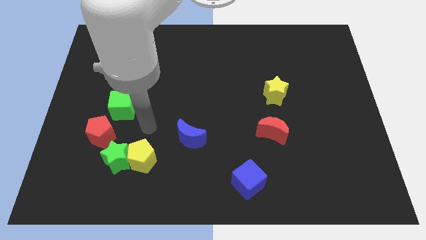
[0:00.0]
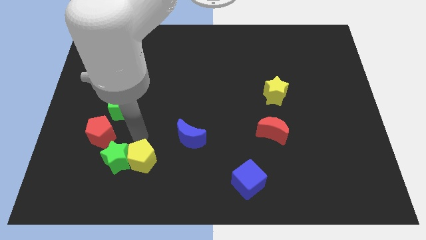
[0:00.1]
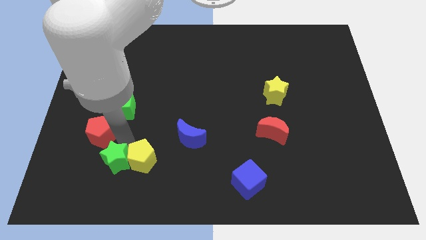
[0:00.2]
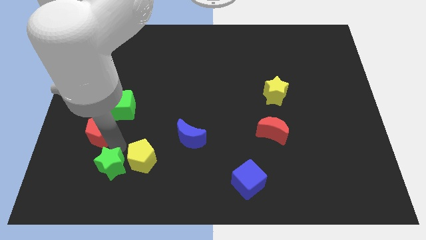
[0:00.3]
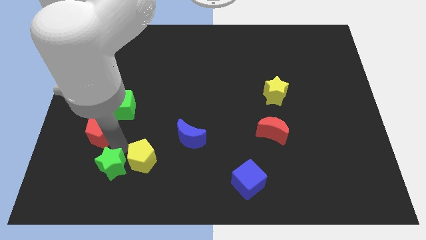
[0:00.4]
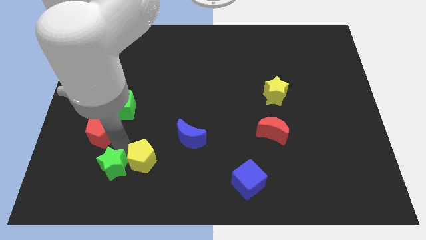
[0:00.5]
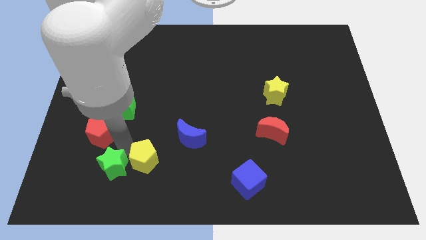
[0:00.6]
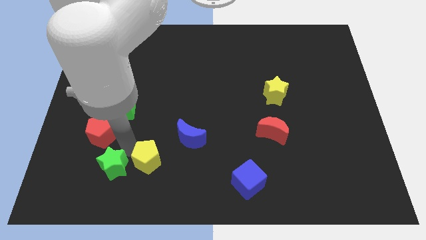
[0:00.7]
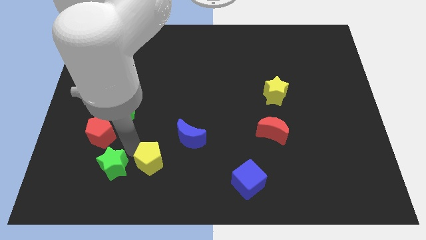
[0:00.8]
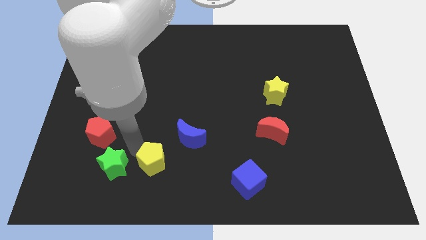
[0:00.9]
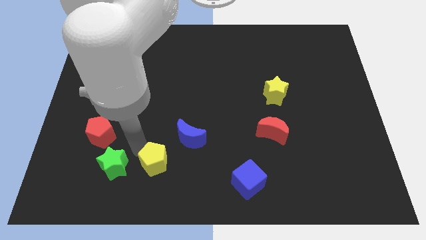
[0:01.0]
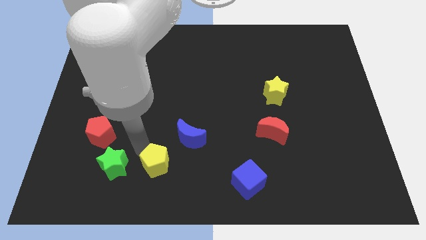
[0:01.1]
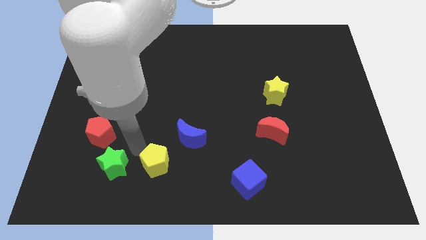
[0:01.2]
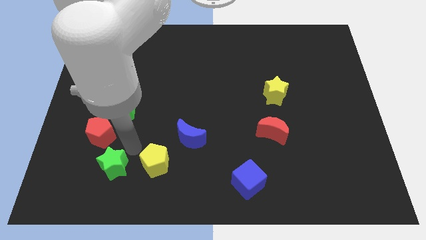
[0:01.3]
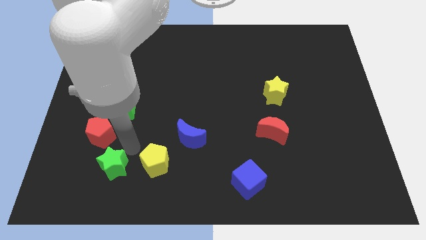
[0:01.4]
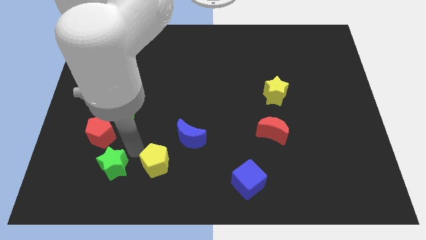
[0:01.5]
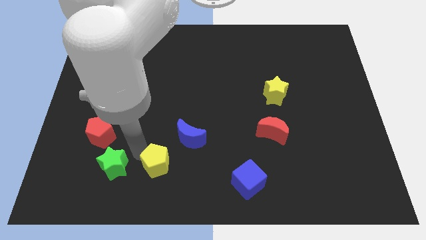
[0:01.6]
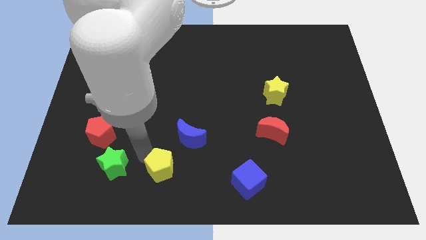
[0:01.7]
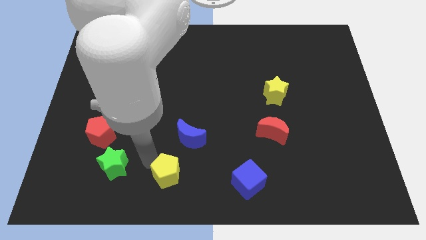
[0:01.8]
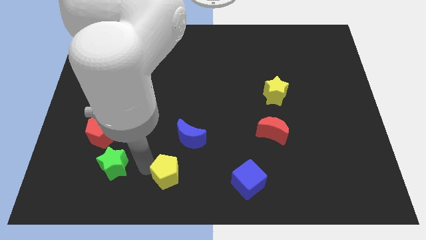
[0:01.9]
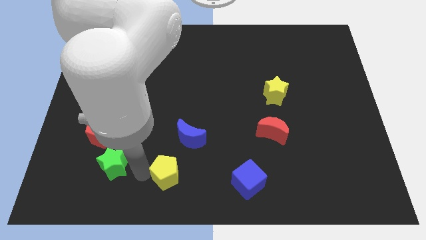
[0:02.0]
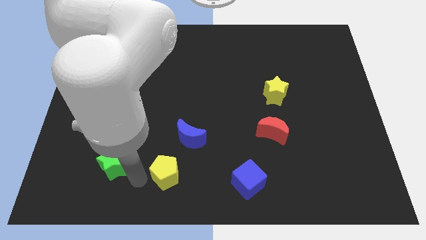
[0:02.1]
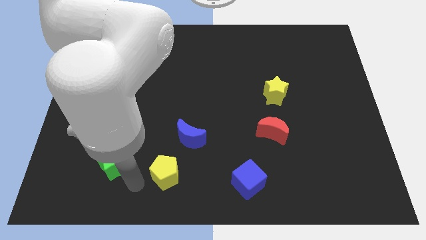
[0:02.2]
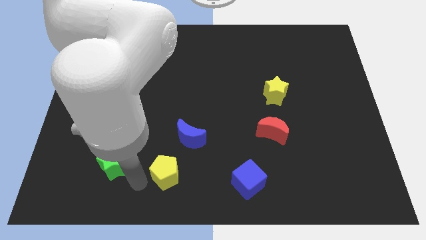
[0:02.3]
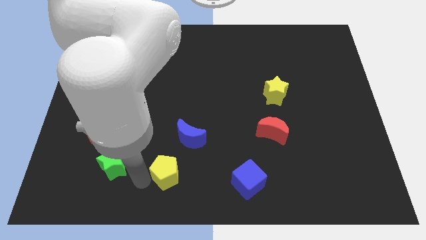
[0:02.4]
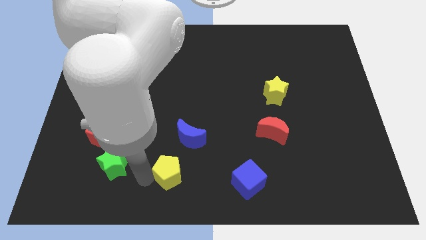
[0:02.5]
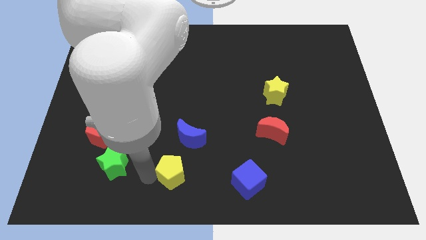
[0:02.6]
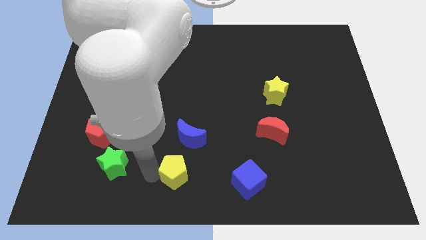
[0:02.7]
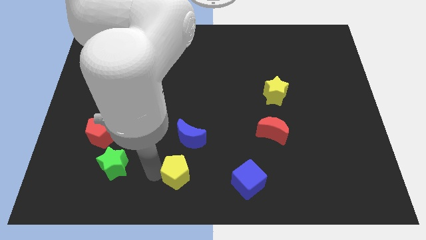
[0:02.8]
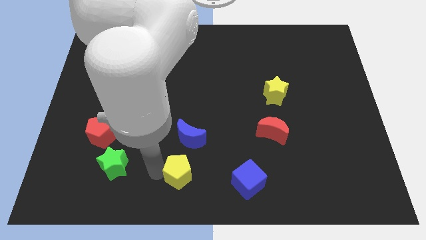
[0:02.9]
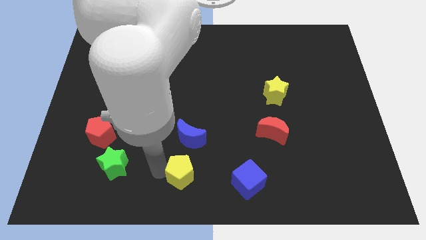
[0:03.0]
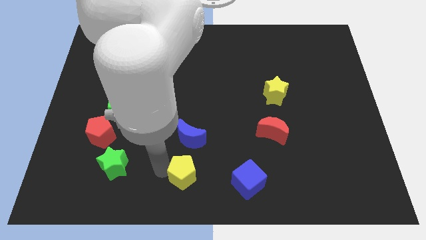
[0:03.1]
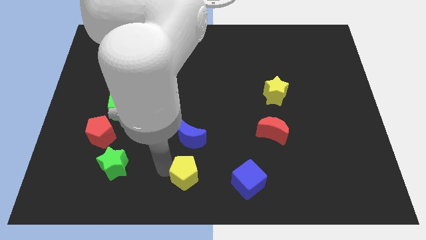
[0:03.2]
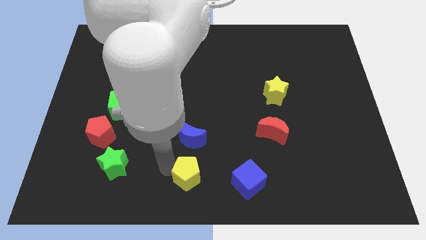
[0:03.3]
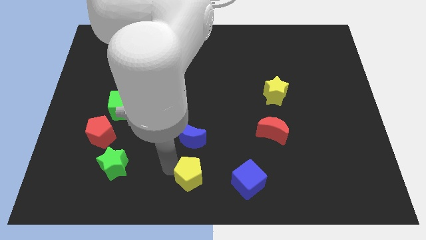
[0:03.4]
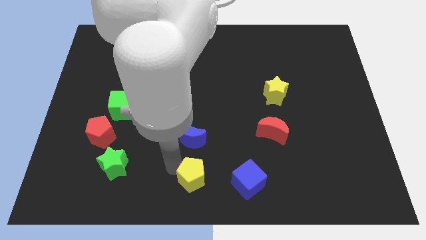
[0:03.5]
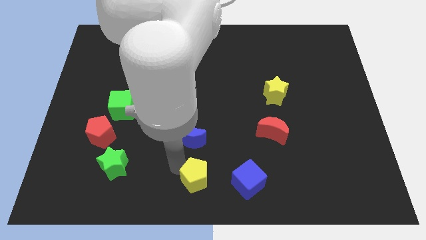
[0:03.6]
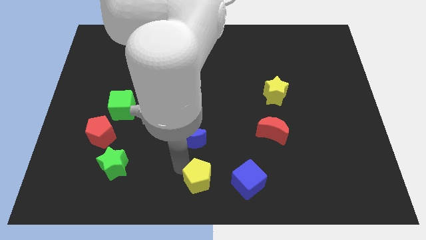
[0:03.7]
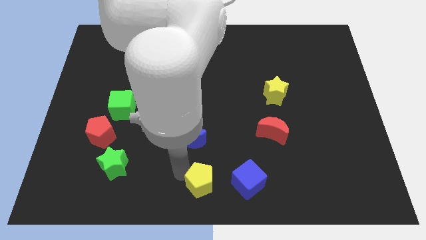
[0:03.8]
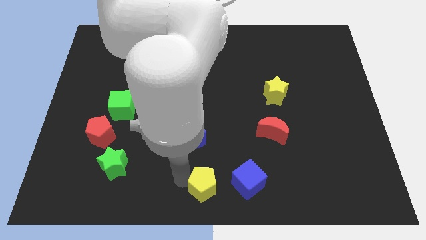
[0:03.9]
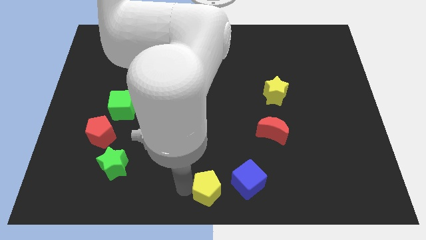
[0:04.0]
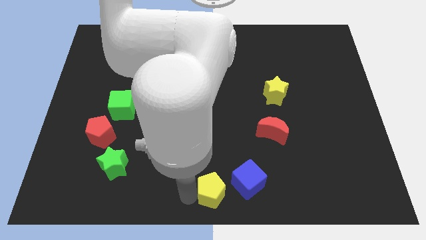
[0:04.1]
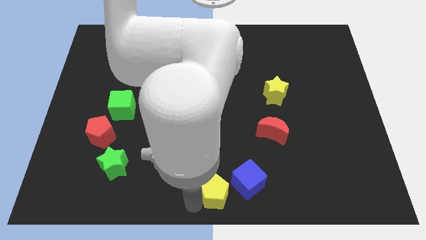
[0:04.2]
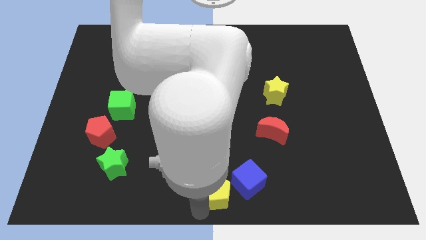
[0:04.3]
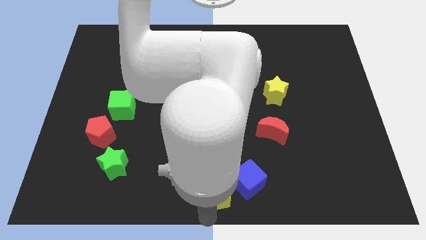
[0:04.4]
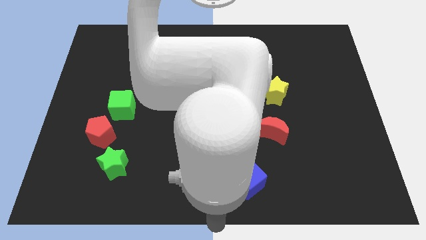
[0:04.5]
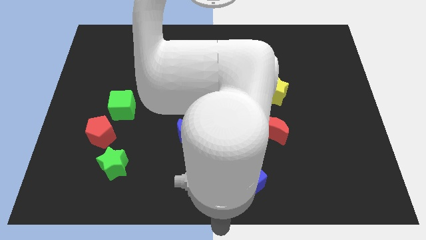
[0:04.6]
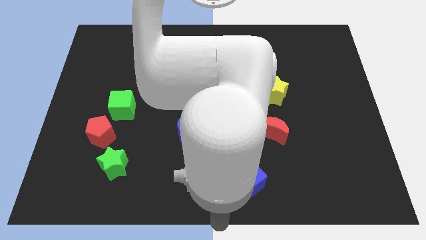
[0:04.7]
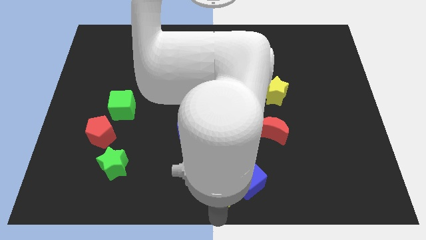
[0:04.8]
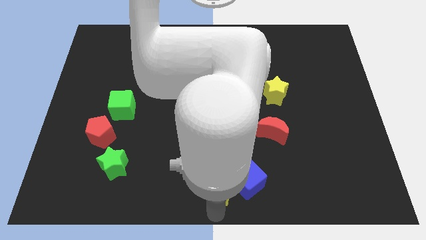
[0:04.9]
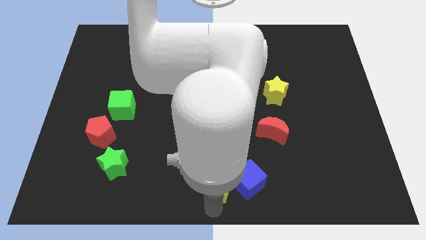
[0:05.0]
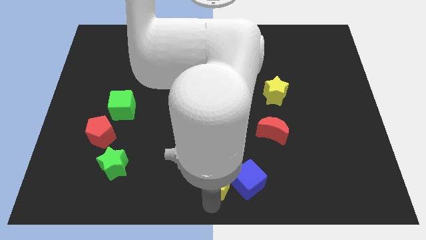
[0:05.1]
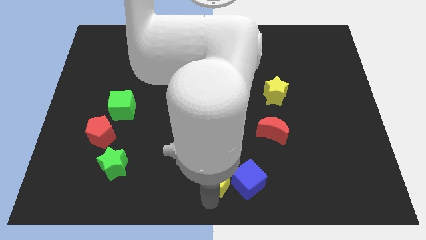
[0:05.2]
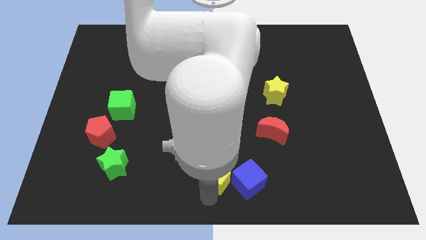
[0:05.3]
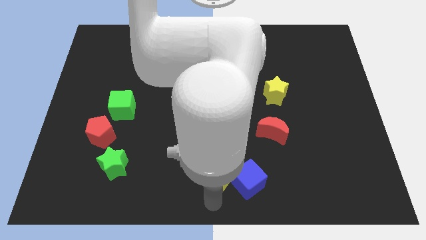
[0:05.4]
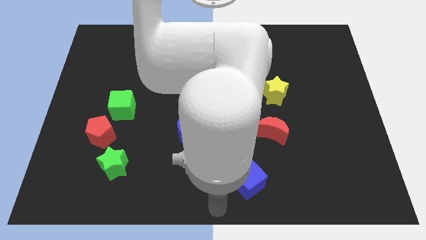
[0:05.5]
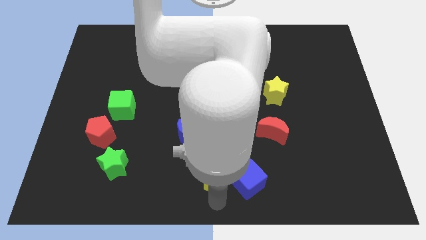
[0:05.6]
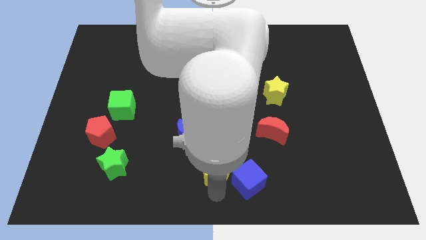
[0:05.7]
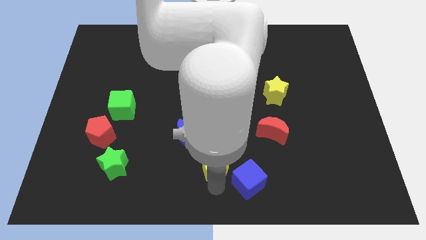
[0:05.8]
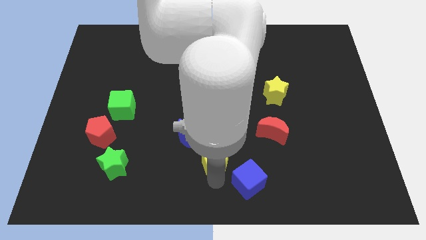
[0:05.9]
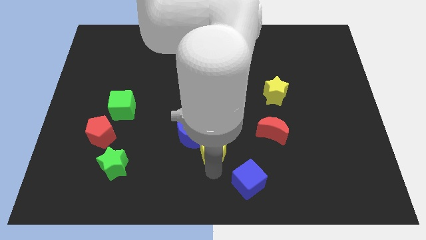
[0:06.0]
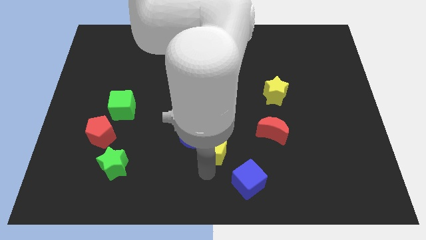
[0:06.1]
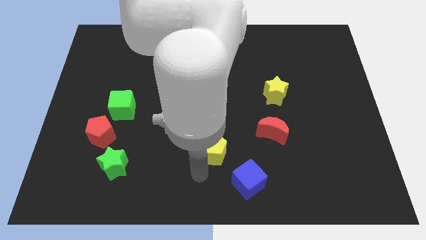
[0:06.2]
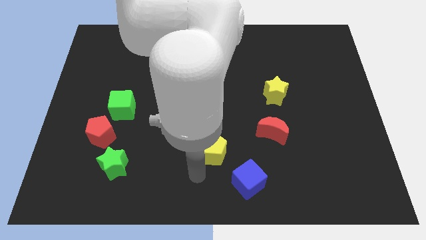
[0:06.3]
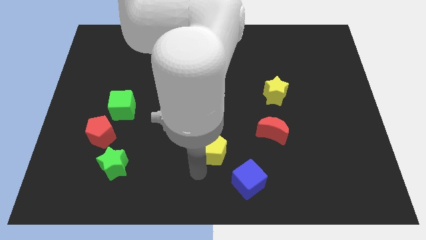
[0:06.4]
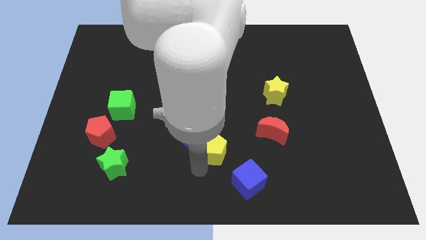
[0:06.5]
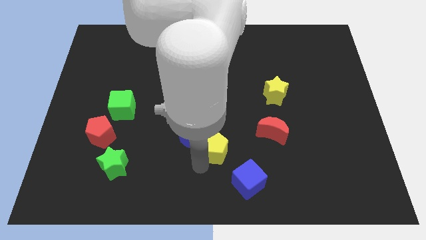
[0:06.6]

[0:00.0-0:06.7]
push the yellow pentagon to the left of the red moon
